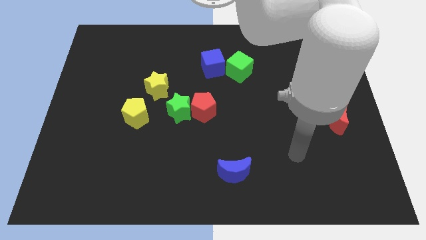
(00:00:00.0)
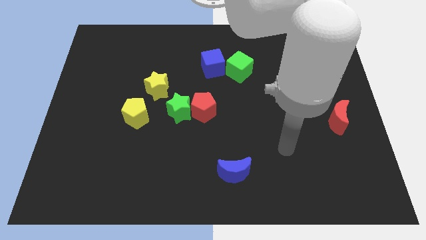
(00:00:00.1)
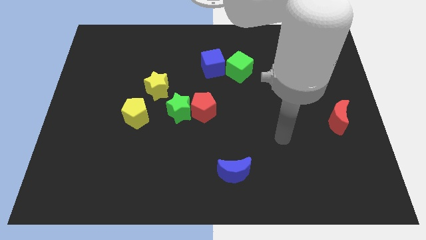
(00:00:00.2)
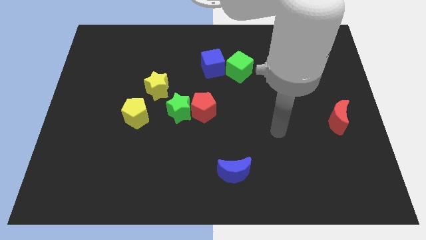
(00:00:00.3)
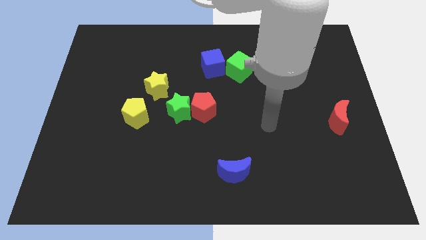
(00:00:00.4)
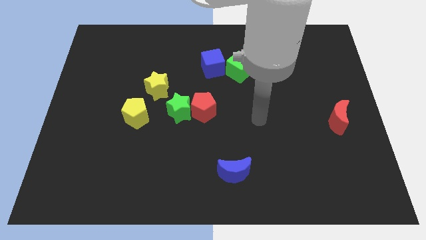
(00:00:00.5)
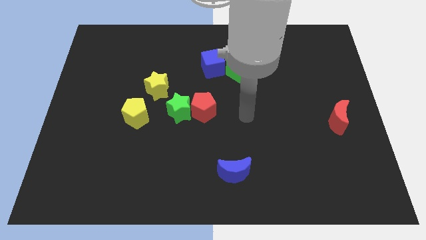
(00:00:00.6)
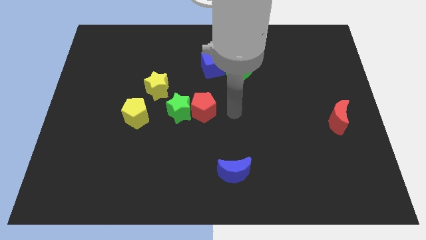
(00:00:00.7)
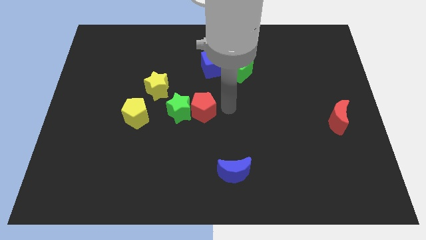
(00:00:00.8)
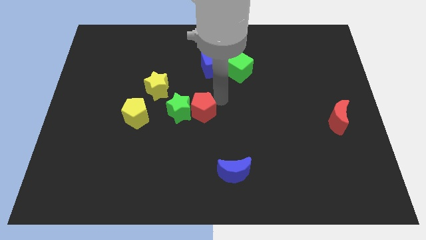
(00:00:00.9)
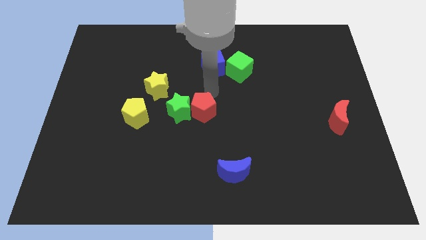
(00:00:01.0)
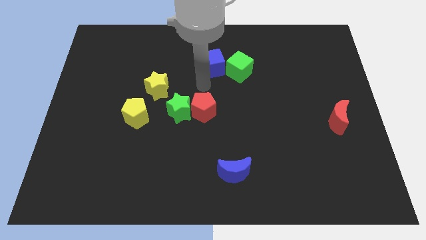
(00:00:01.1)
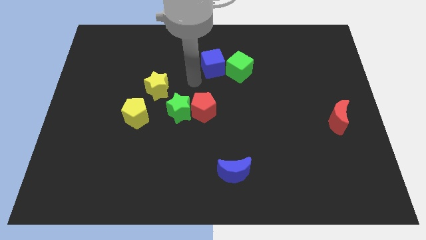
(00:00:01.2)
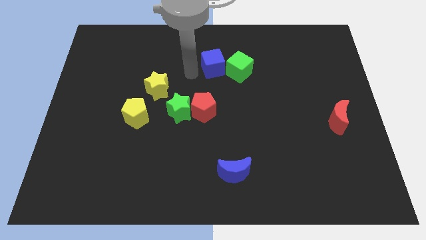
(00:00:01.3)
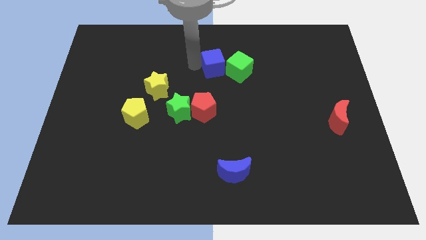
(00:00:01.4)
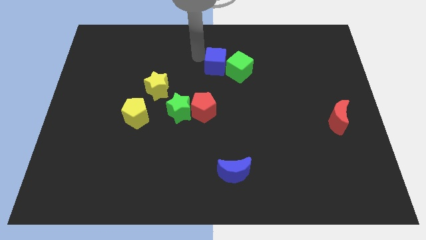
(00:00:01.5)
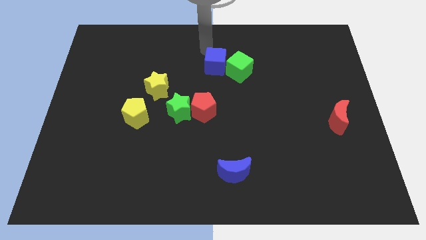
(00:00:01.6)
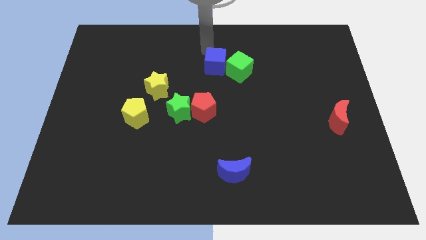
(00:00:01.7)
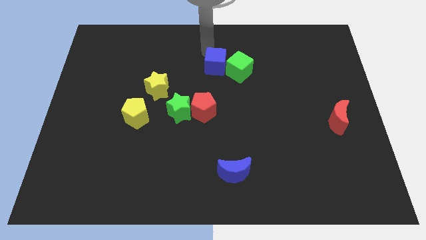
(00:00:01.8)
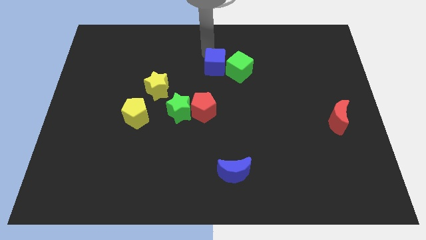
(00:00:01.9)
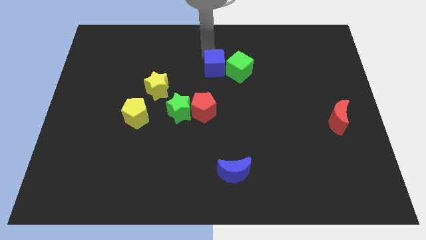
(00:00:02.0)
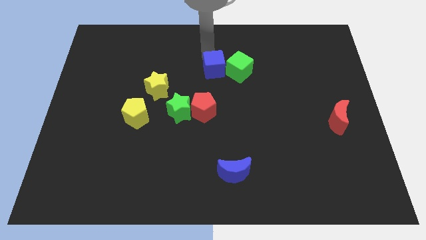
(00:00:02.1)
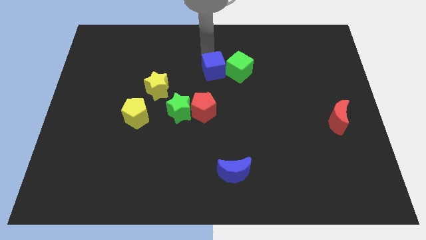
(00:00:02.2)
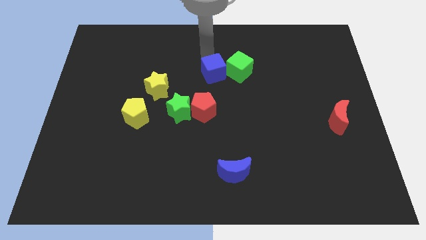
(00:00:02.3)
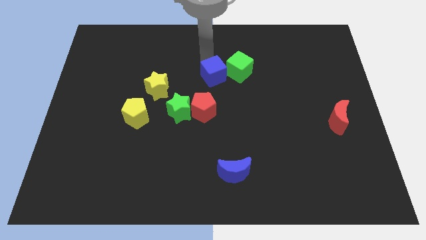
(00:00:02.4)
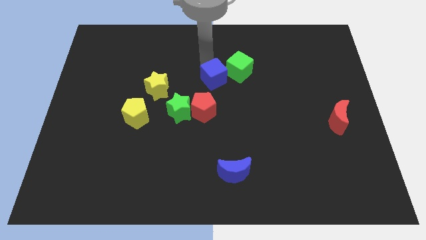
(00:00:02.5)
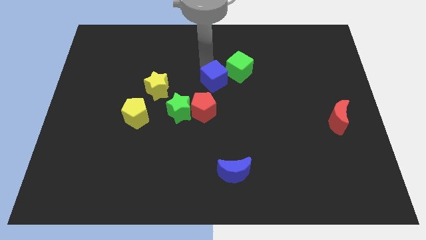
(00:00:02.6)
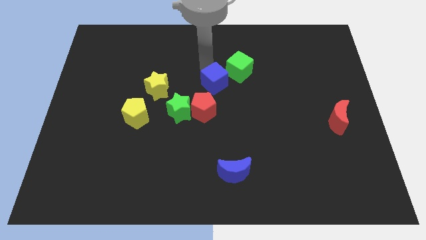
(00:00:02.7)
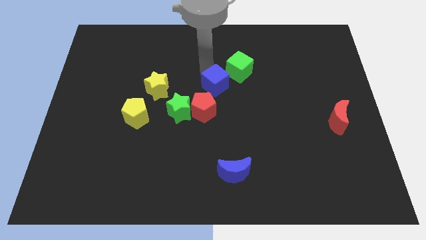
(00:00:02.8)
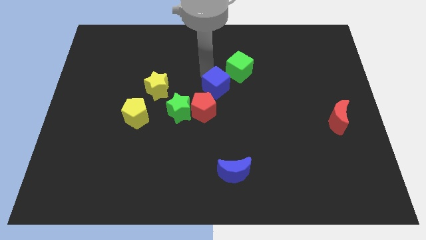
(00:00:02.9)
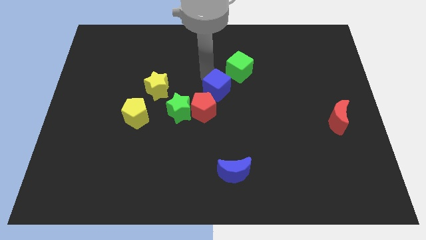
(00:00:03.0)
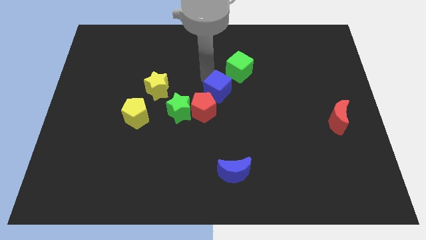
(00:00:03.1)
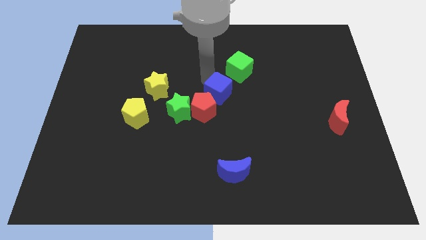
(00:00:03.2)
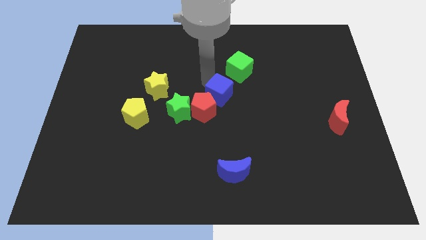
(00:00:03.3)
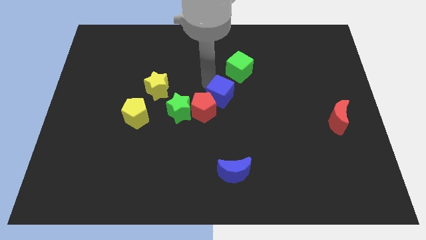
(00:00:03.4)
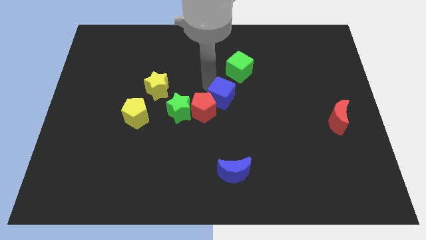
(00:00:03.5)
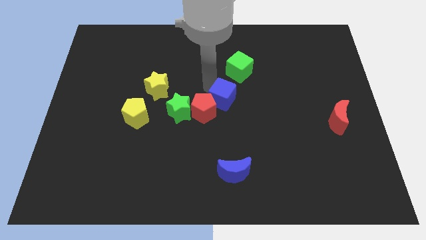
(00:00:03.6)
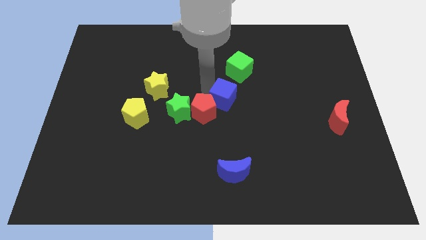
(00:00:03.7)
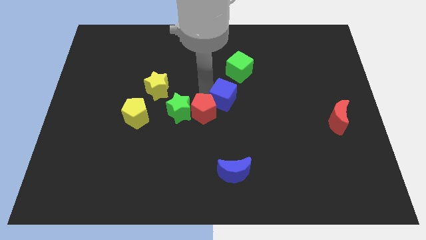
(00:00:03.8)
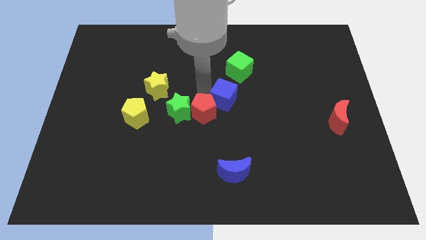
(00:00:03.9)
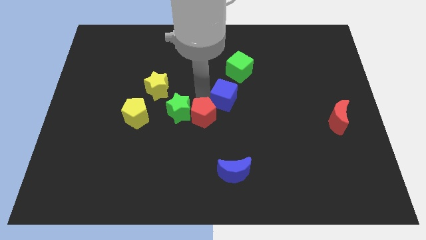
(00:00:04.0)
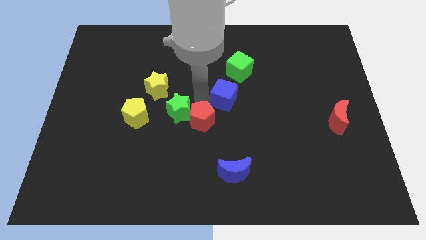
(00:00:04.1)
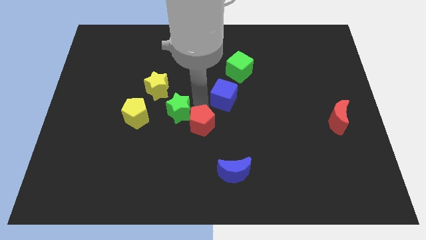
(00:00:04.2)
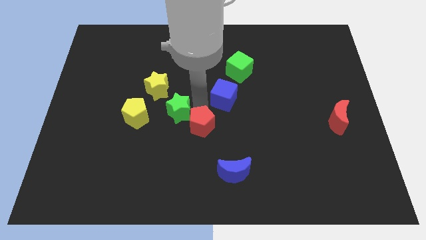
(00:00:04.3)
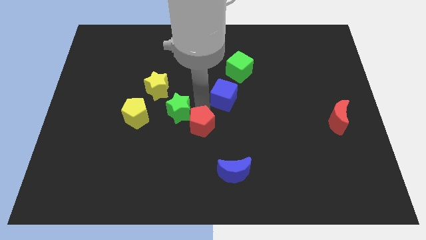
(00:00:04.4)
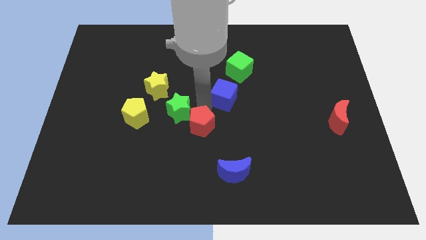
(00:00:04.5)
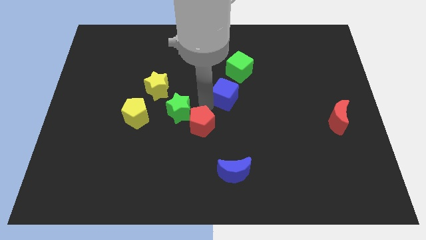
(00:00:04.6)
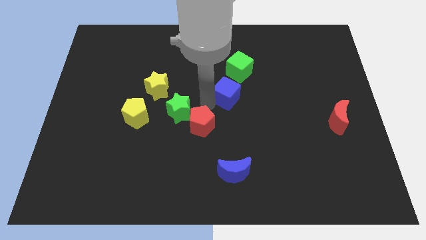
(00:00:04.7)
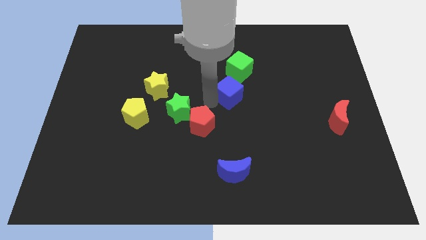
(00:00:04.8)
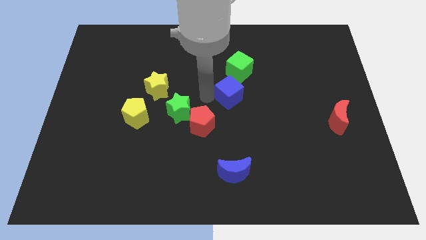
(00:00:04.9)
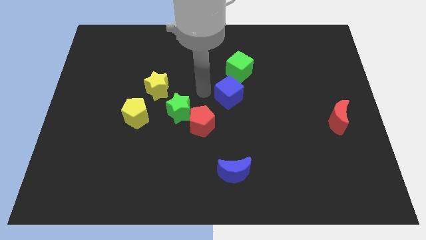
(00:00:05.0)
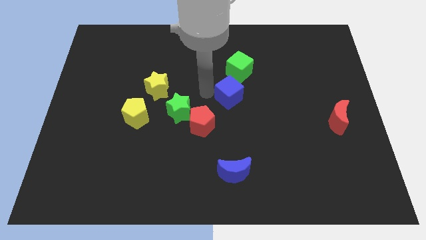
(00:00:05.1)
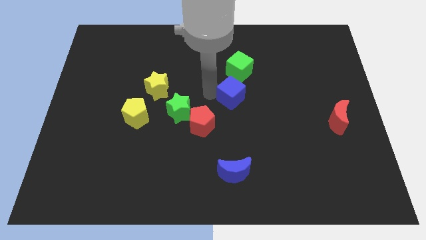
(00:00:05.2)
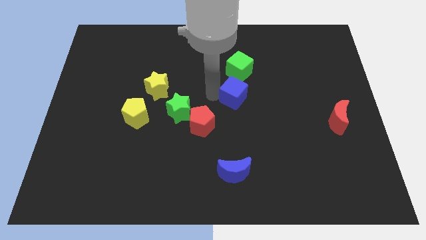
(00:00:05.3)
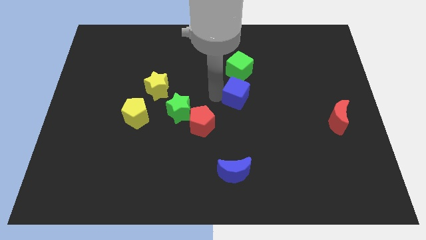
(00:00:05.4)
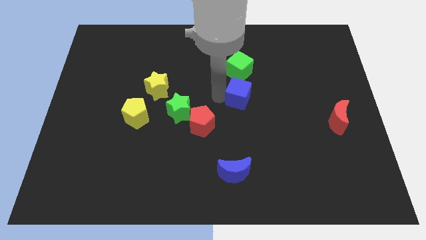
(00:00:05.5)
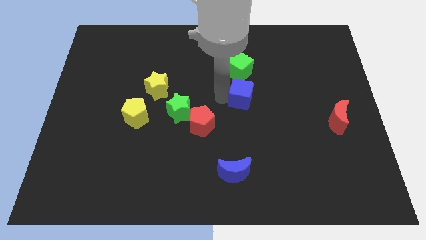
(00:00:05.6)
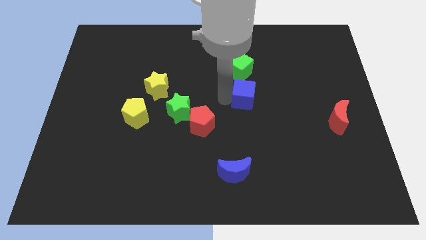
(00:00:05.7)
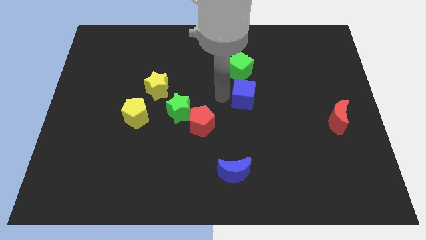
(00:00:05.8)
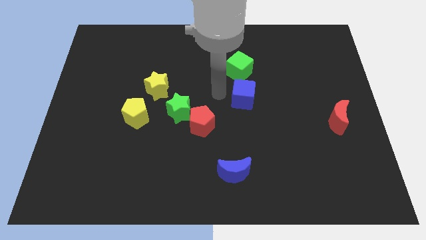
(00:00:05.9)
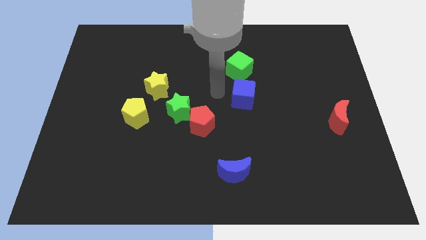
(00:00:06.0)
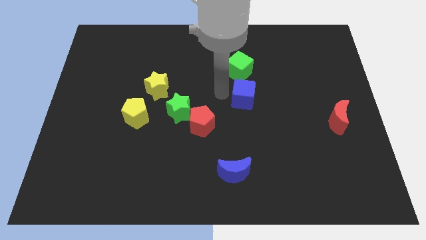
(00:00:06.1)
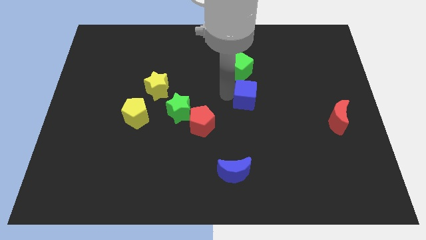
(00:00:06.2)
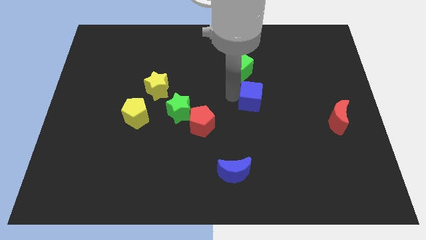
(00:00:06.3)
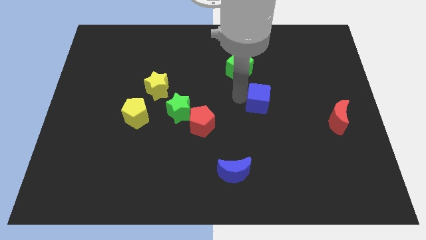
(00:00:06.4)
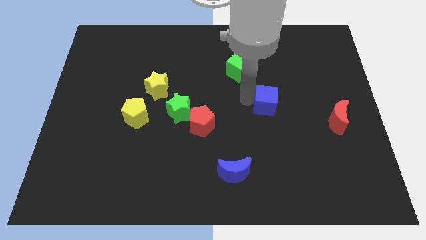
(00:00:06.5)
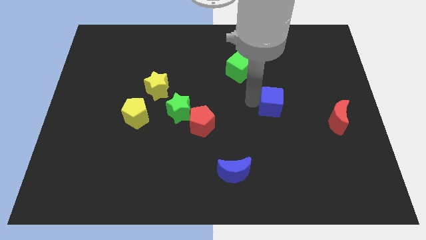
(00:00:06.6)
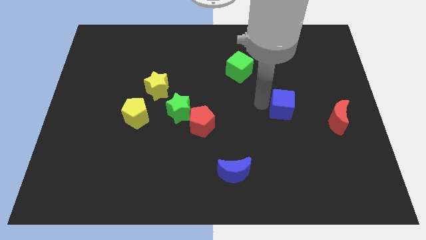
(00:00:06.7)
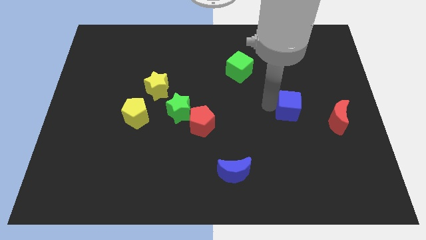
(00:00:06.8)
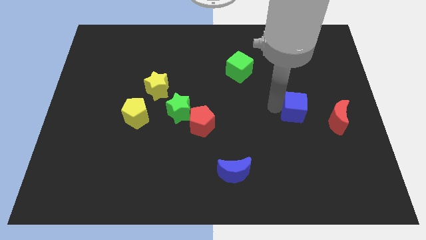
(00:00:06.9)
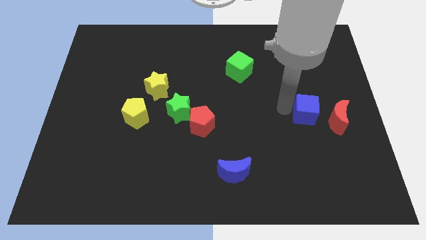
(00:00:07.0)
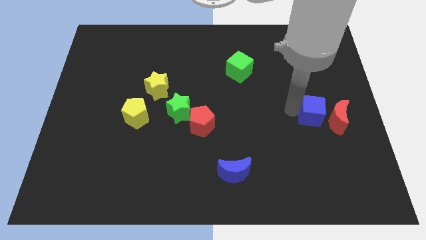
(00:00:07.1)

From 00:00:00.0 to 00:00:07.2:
slide the blue cube towards the red moon

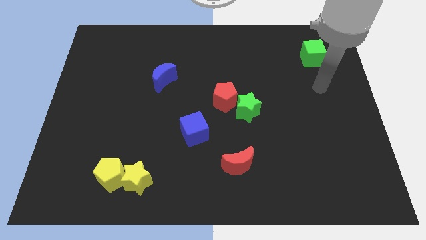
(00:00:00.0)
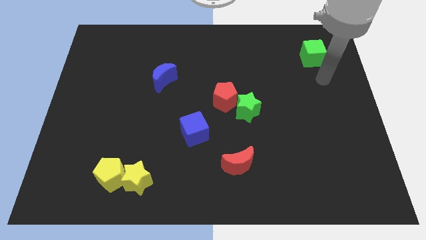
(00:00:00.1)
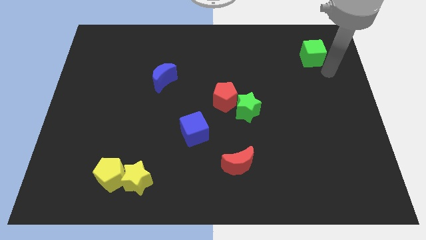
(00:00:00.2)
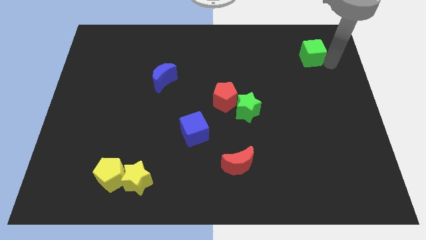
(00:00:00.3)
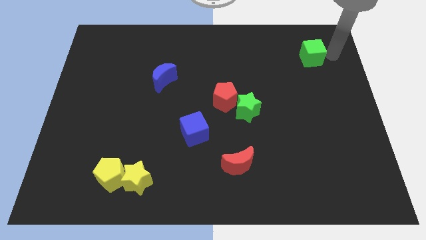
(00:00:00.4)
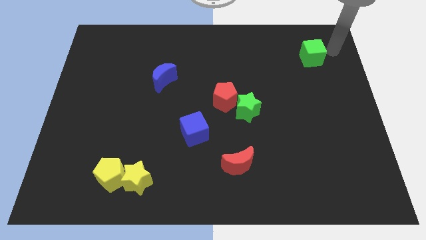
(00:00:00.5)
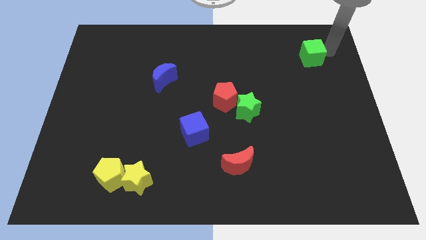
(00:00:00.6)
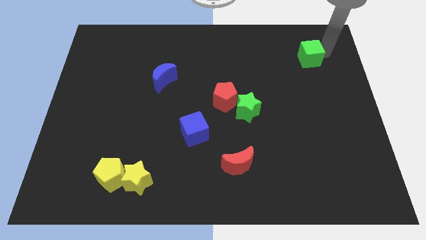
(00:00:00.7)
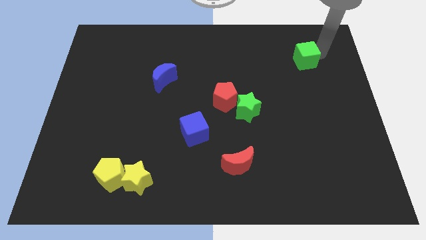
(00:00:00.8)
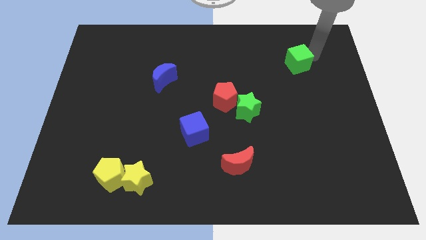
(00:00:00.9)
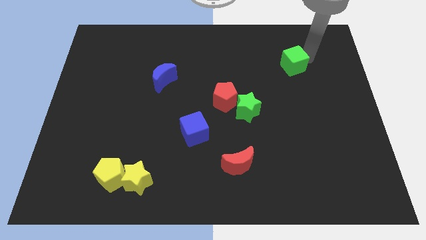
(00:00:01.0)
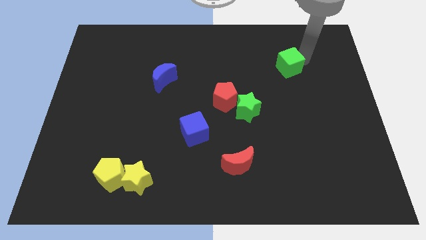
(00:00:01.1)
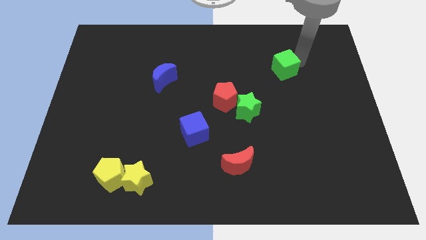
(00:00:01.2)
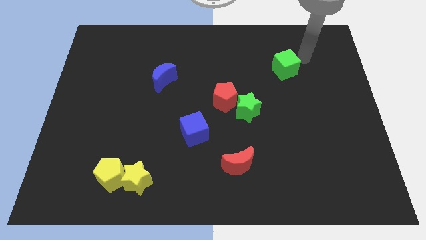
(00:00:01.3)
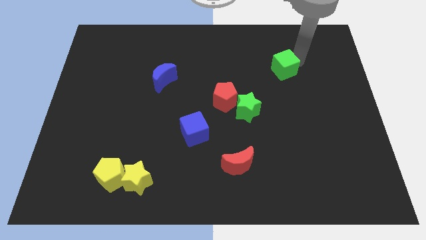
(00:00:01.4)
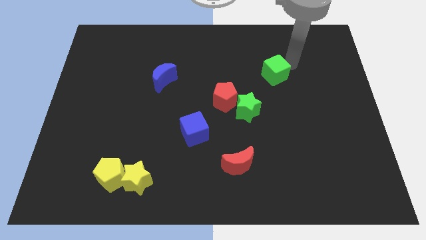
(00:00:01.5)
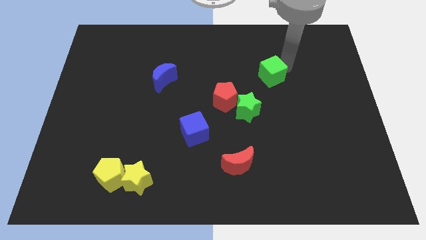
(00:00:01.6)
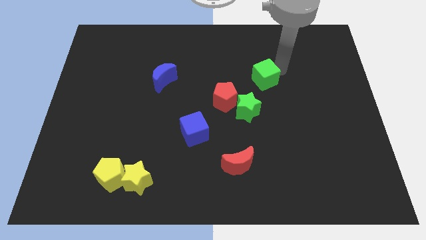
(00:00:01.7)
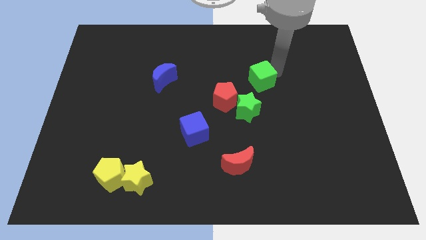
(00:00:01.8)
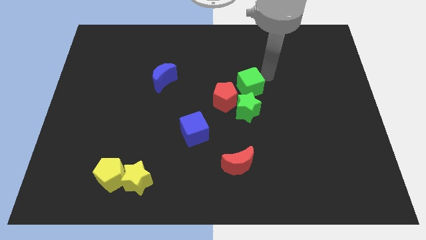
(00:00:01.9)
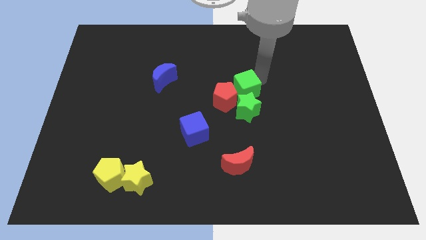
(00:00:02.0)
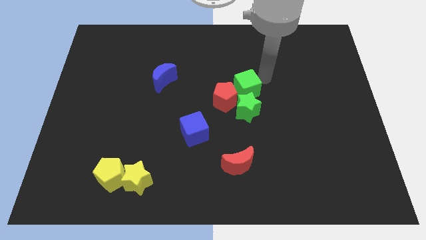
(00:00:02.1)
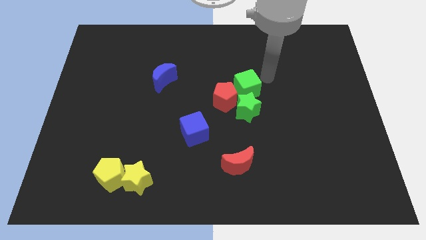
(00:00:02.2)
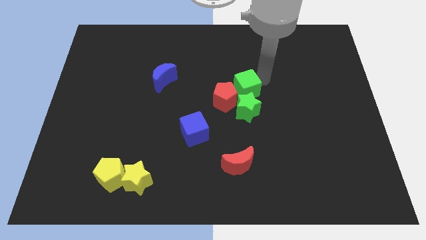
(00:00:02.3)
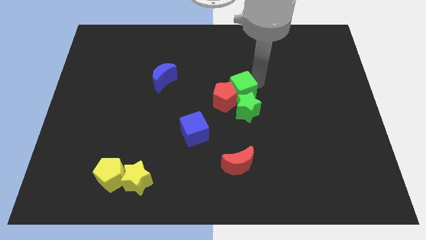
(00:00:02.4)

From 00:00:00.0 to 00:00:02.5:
put the green cube towards the red pentagon
